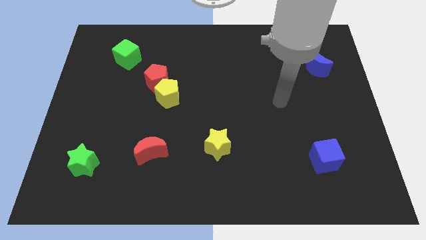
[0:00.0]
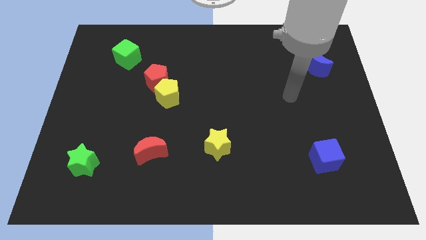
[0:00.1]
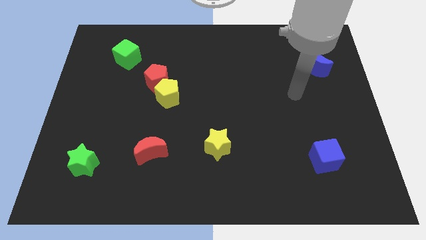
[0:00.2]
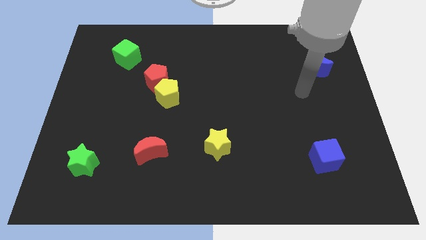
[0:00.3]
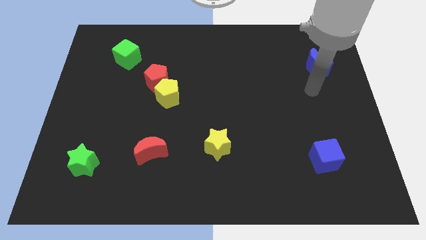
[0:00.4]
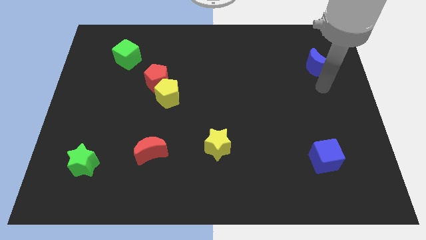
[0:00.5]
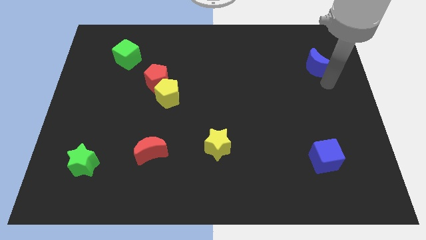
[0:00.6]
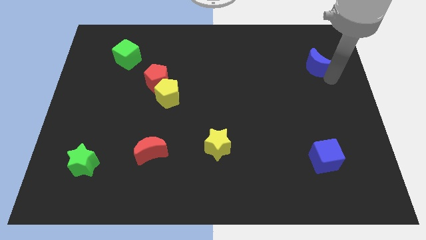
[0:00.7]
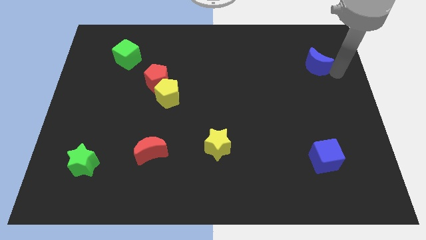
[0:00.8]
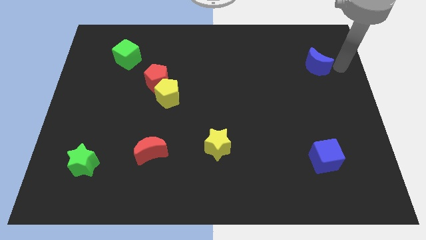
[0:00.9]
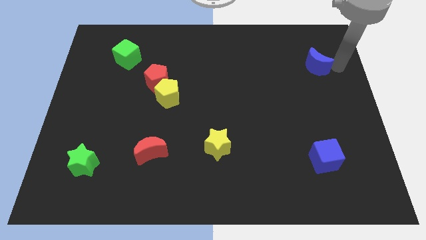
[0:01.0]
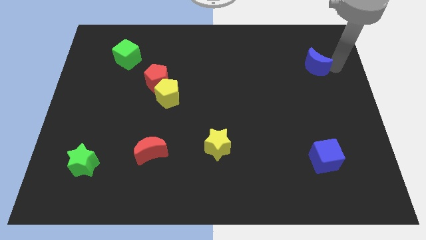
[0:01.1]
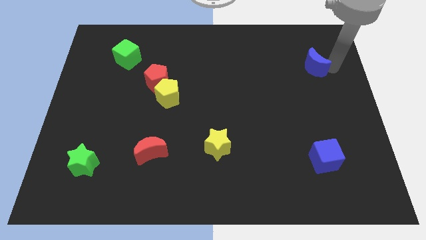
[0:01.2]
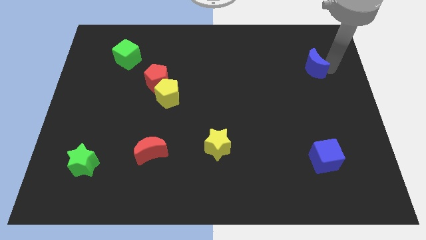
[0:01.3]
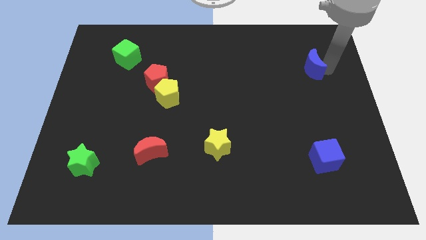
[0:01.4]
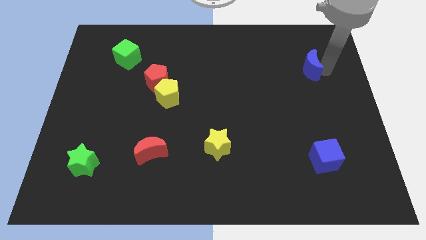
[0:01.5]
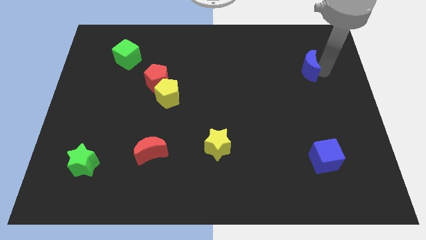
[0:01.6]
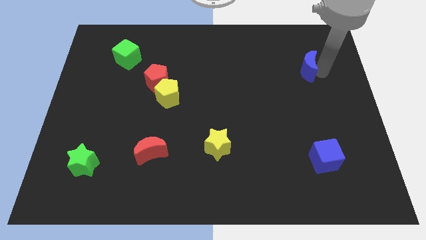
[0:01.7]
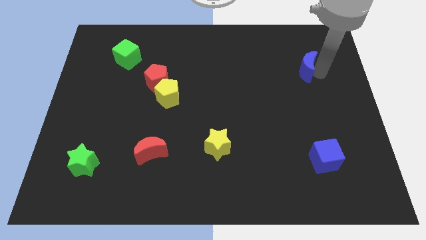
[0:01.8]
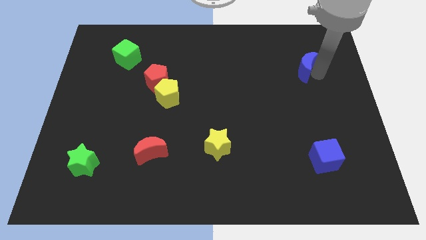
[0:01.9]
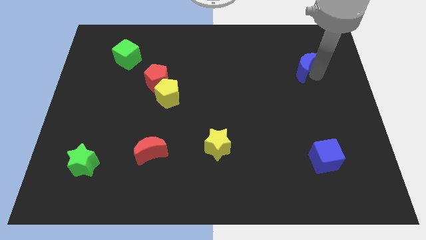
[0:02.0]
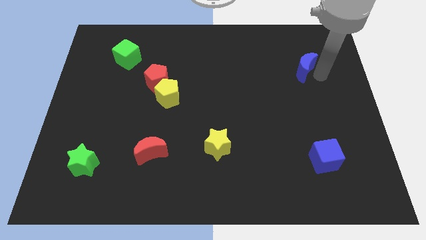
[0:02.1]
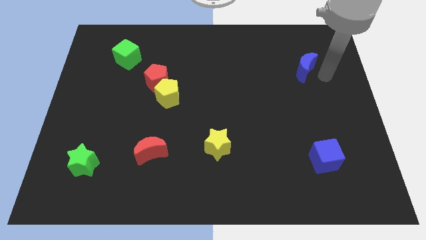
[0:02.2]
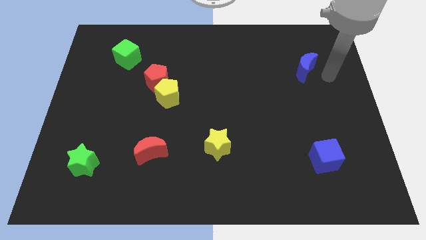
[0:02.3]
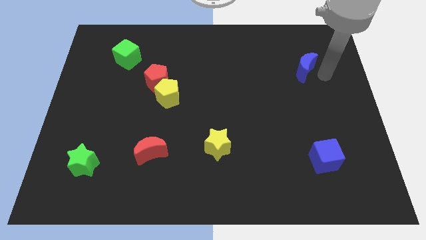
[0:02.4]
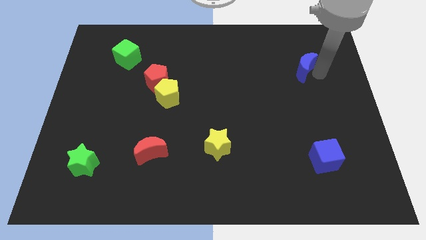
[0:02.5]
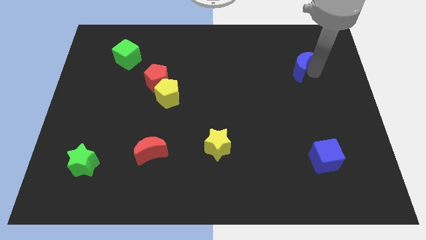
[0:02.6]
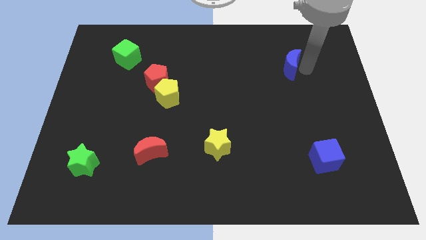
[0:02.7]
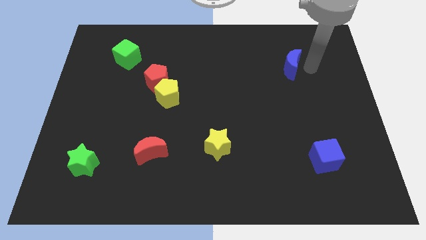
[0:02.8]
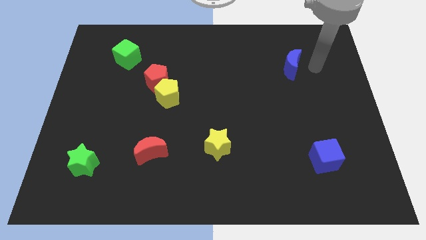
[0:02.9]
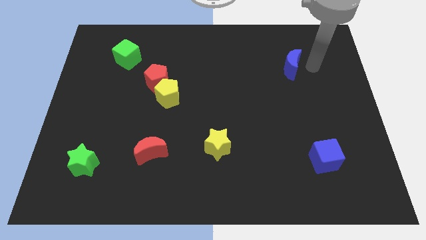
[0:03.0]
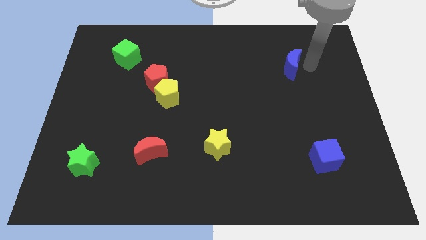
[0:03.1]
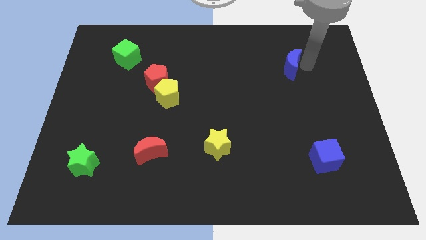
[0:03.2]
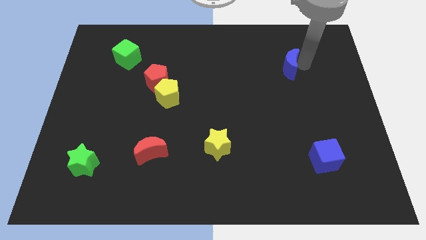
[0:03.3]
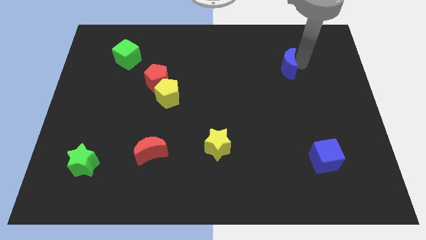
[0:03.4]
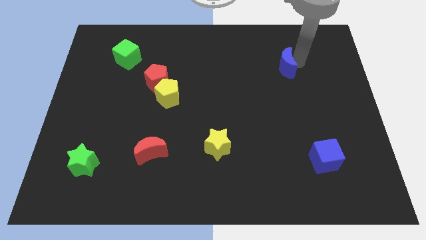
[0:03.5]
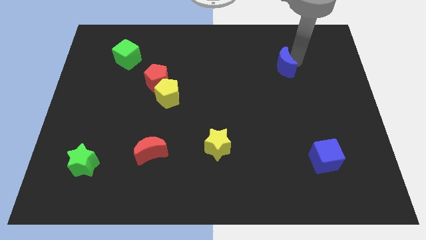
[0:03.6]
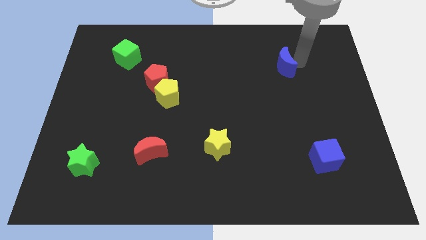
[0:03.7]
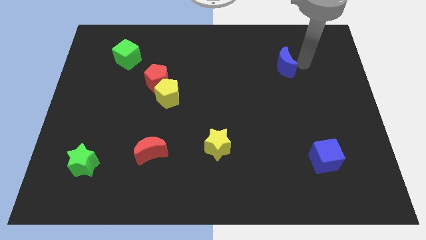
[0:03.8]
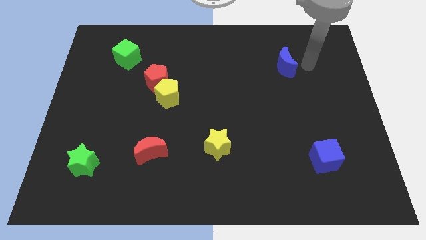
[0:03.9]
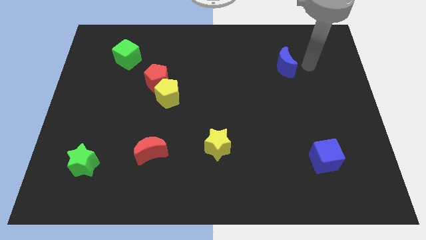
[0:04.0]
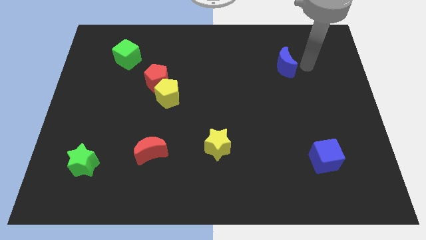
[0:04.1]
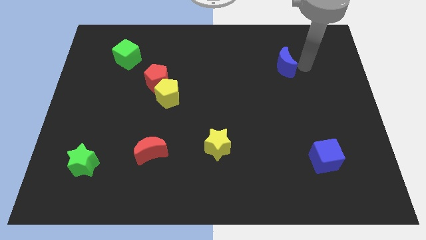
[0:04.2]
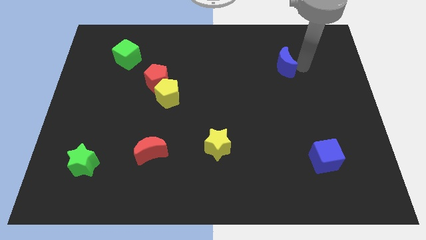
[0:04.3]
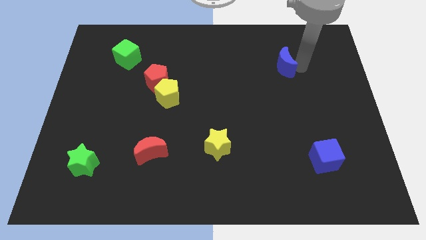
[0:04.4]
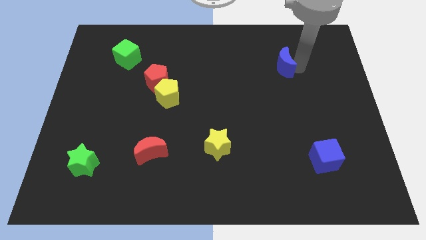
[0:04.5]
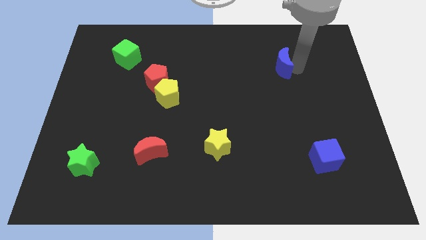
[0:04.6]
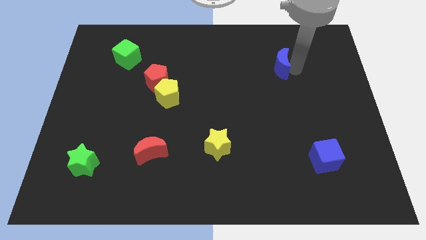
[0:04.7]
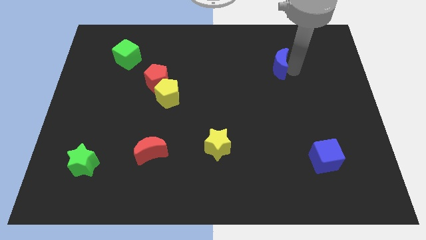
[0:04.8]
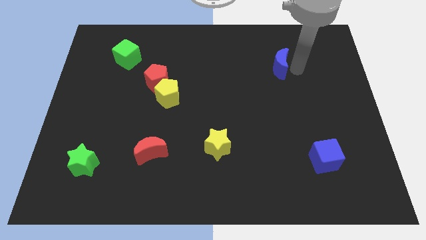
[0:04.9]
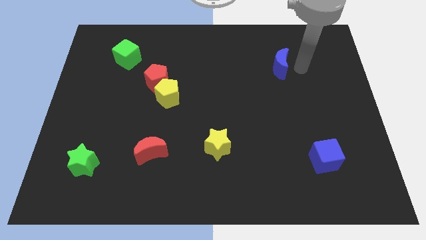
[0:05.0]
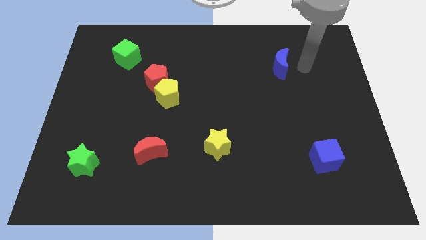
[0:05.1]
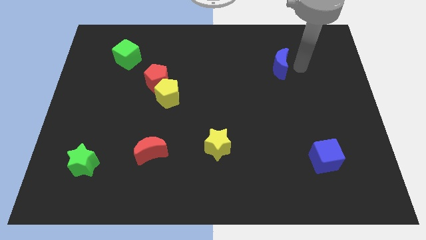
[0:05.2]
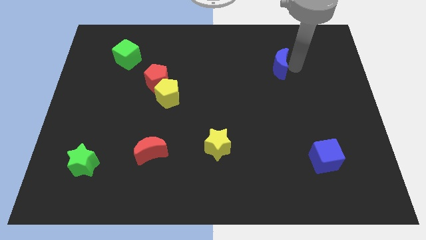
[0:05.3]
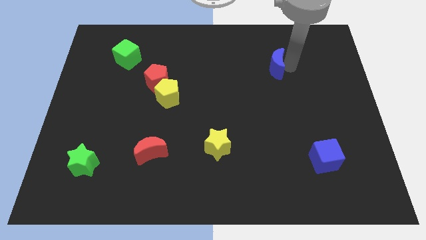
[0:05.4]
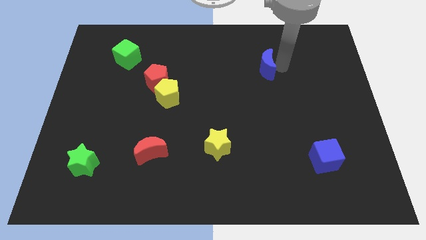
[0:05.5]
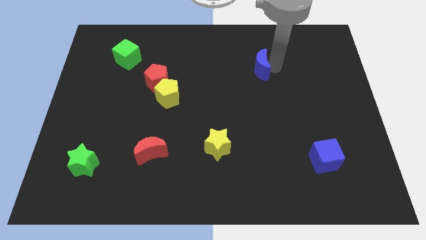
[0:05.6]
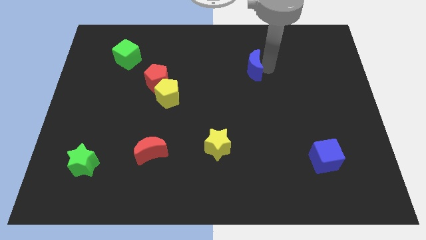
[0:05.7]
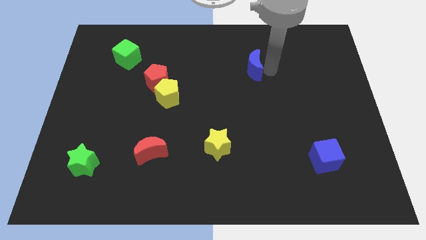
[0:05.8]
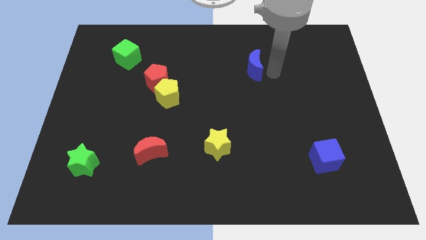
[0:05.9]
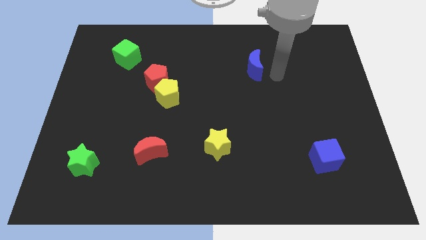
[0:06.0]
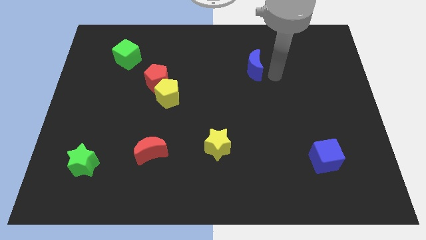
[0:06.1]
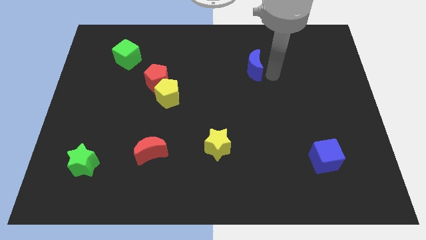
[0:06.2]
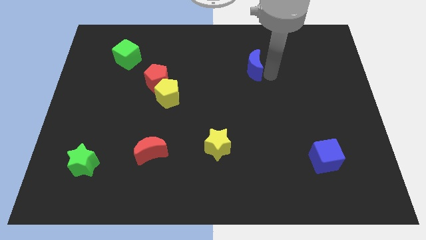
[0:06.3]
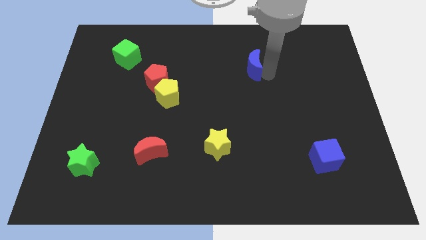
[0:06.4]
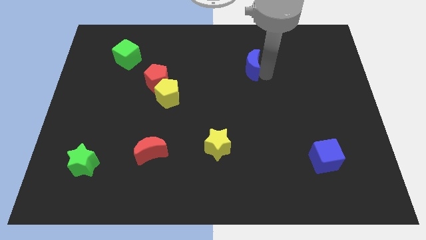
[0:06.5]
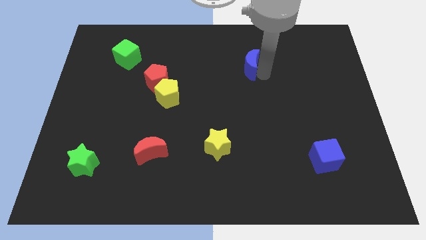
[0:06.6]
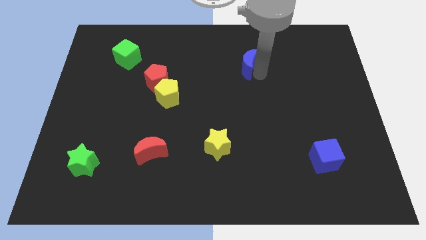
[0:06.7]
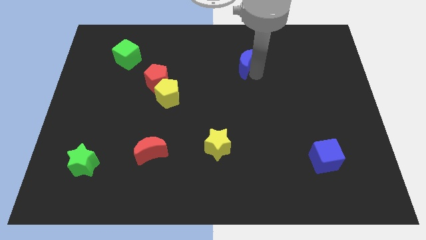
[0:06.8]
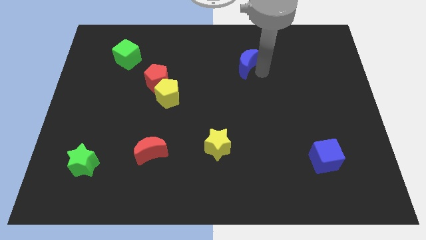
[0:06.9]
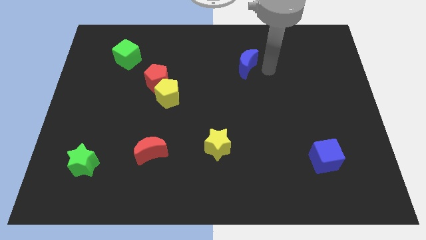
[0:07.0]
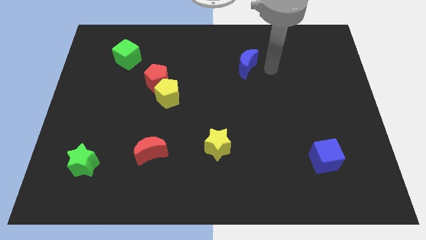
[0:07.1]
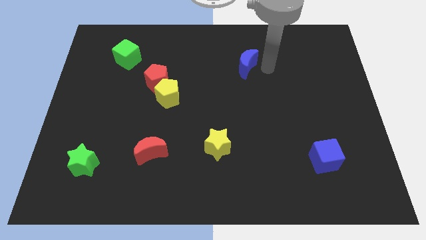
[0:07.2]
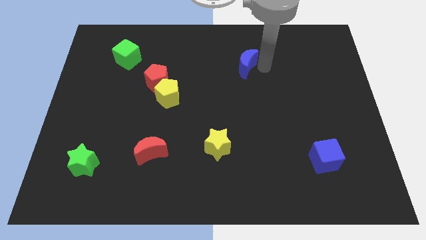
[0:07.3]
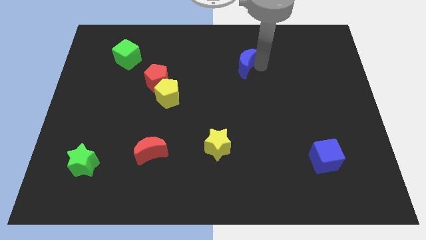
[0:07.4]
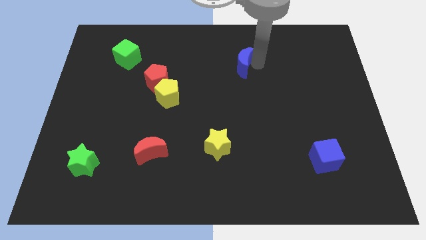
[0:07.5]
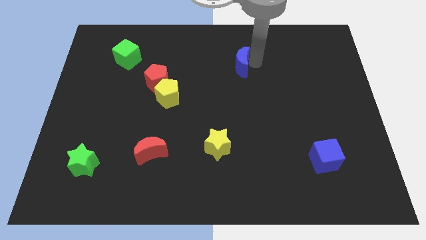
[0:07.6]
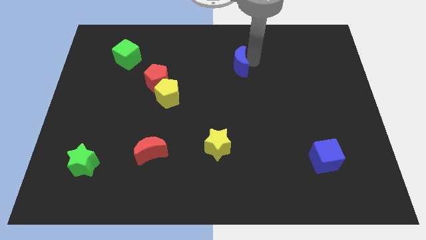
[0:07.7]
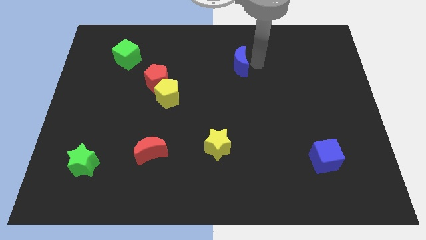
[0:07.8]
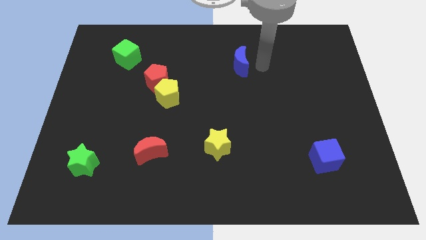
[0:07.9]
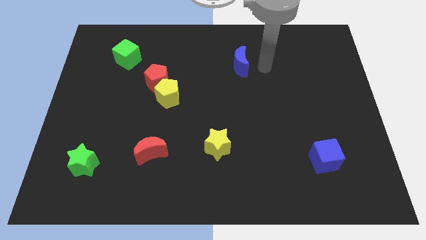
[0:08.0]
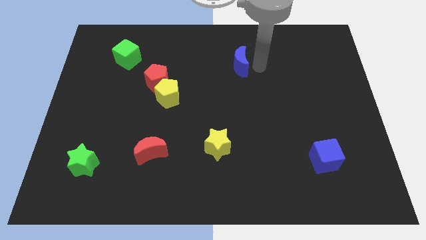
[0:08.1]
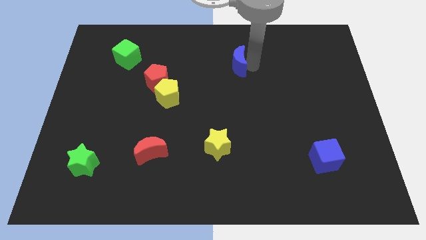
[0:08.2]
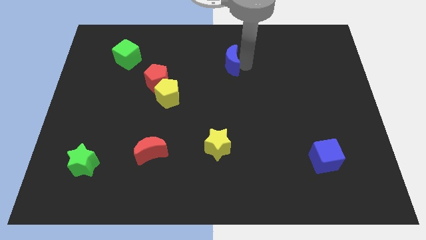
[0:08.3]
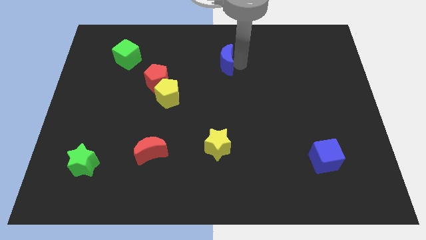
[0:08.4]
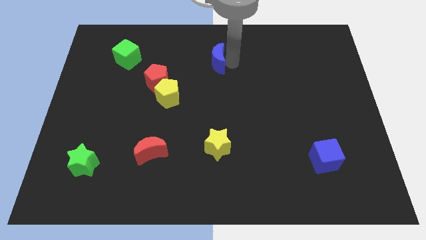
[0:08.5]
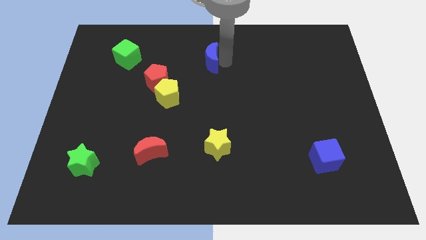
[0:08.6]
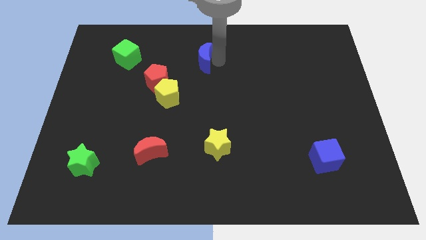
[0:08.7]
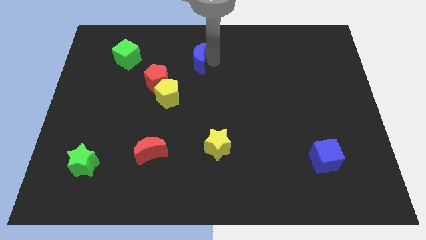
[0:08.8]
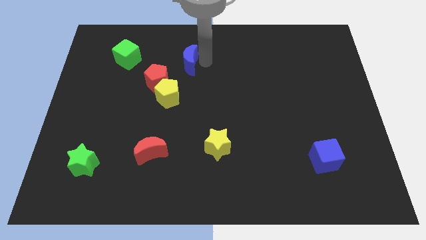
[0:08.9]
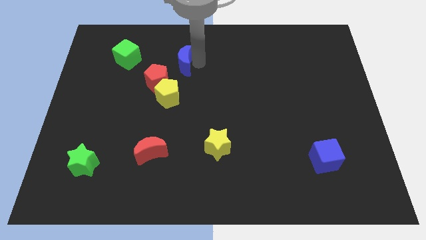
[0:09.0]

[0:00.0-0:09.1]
slide the blue moon to the right side of the green cube
